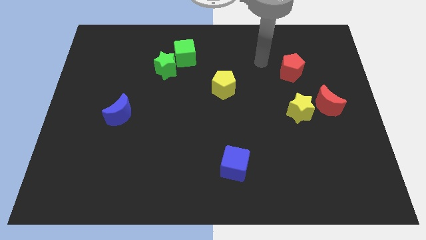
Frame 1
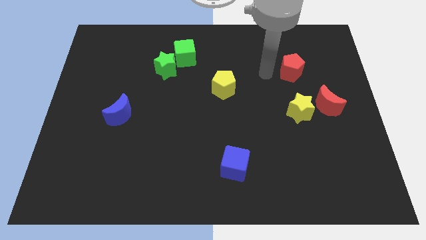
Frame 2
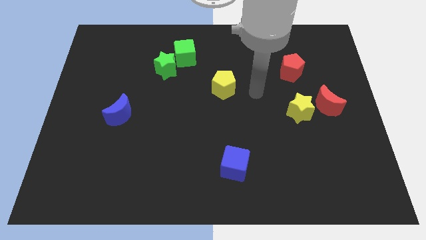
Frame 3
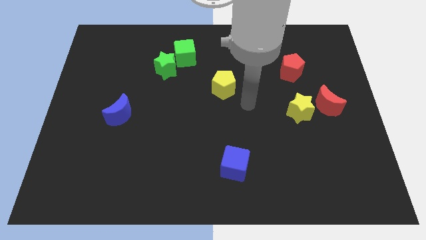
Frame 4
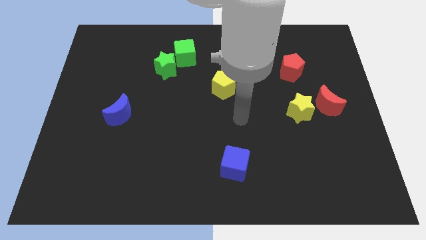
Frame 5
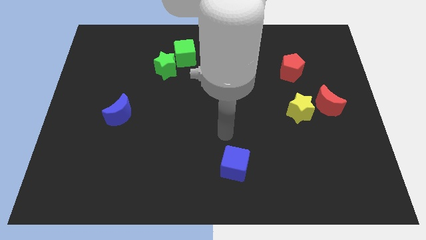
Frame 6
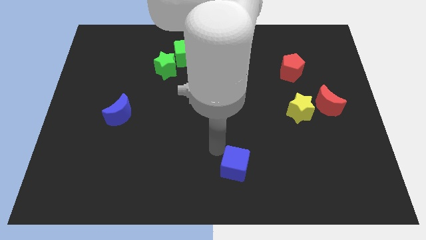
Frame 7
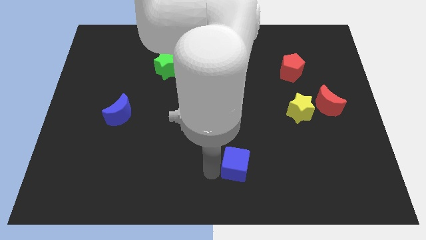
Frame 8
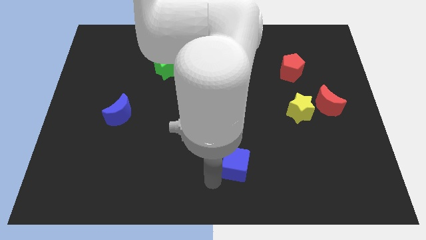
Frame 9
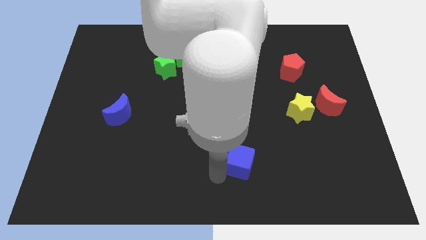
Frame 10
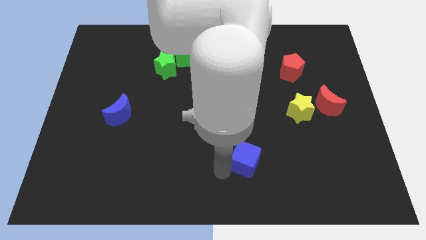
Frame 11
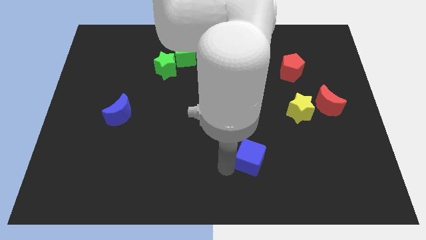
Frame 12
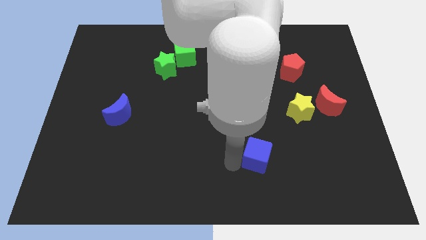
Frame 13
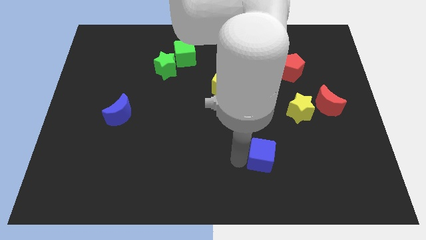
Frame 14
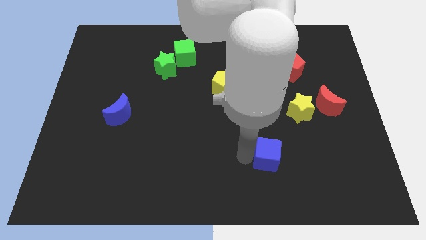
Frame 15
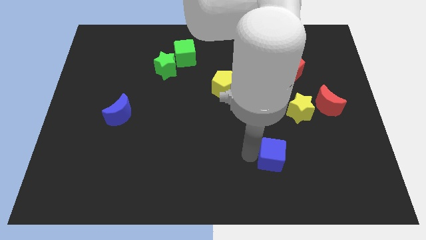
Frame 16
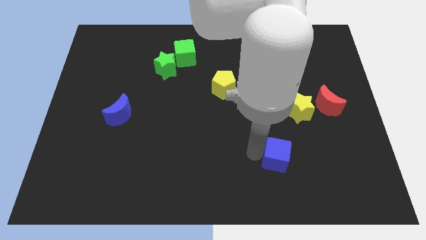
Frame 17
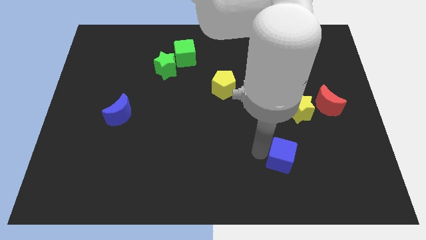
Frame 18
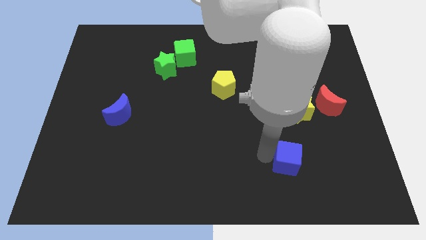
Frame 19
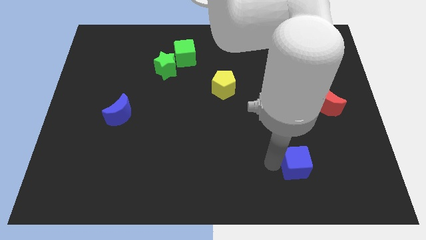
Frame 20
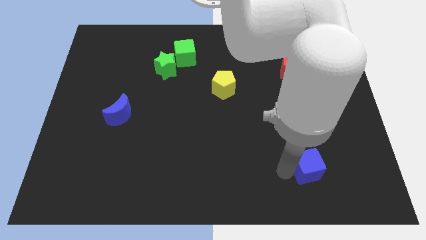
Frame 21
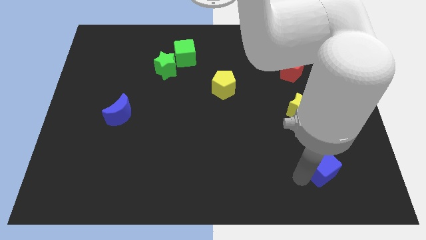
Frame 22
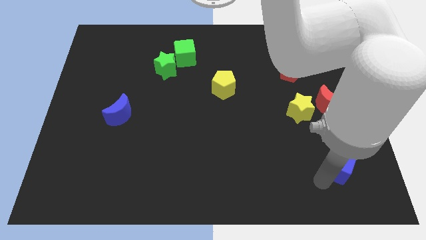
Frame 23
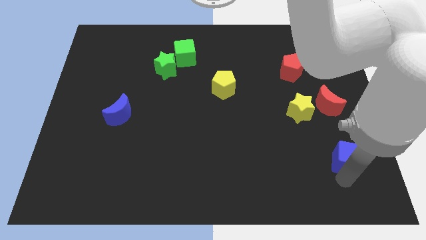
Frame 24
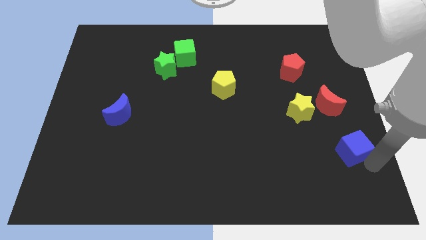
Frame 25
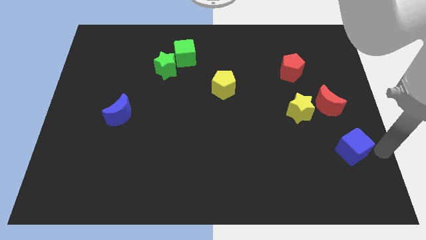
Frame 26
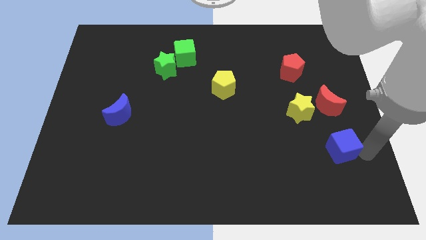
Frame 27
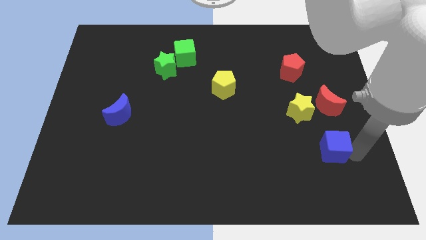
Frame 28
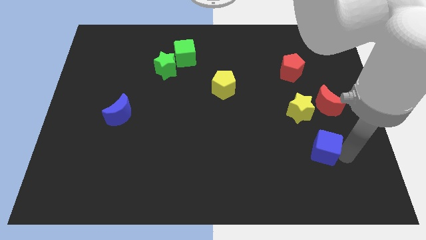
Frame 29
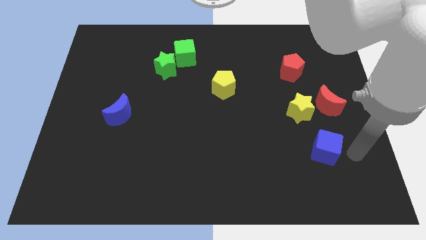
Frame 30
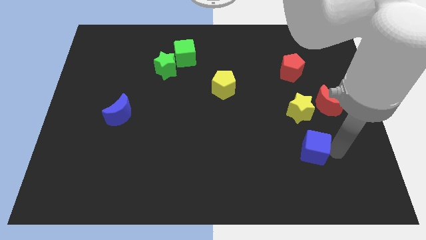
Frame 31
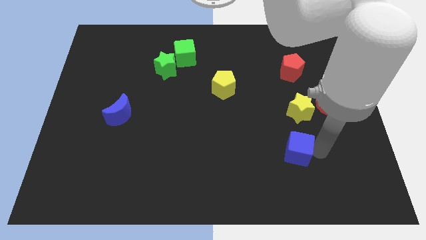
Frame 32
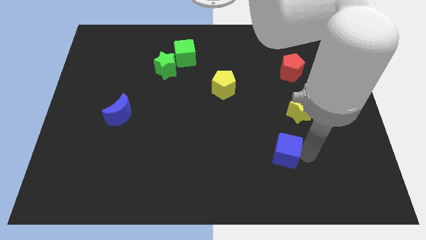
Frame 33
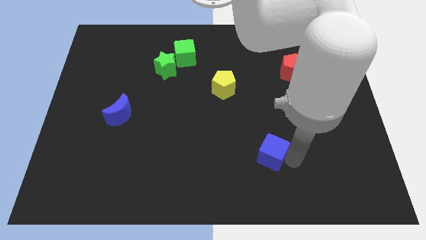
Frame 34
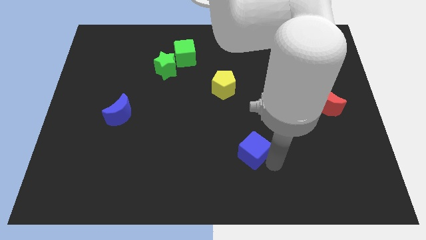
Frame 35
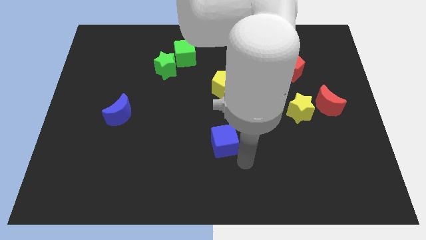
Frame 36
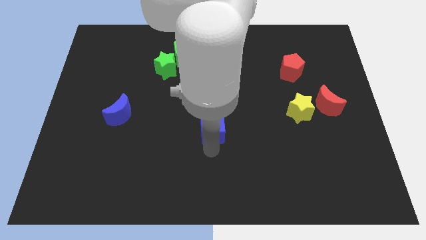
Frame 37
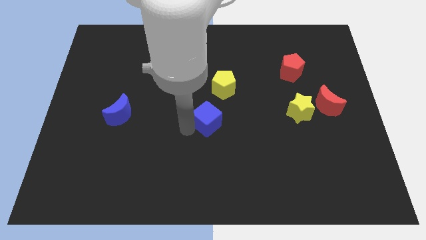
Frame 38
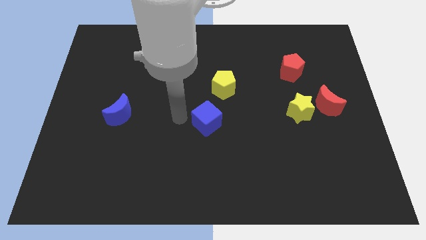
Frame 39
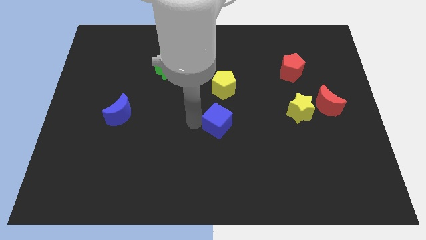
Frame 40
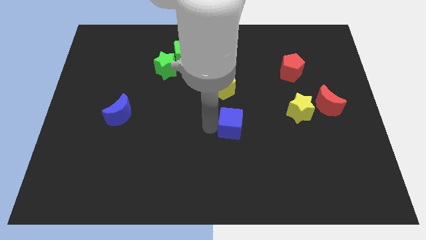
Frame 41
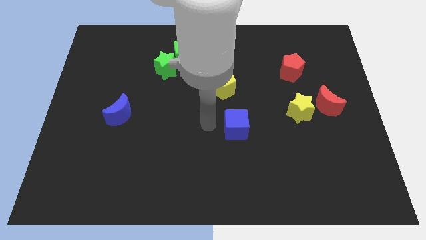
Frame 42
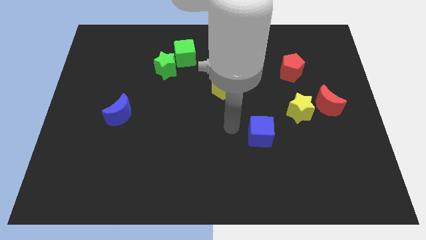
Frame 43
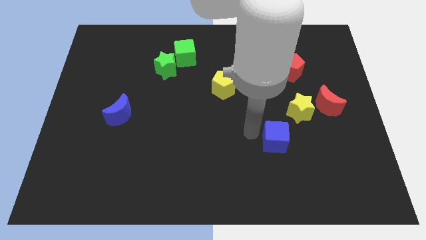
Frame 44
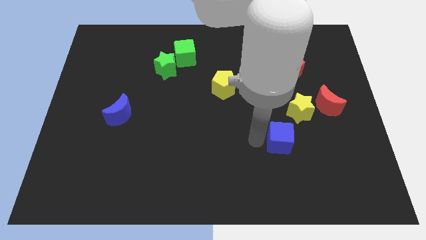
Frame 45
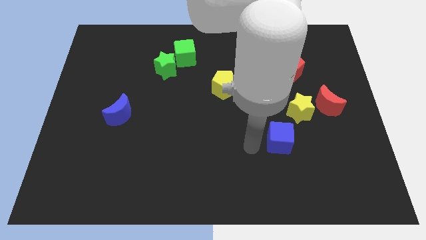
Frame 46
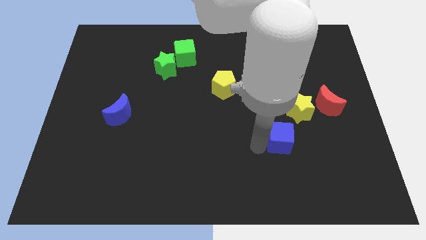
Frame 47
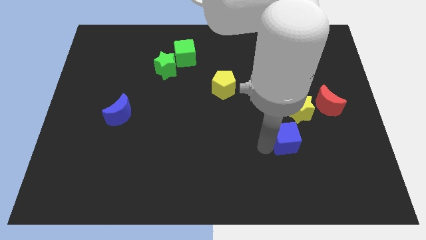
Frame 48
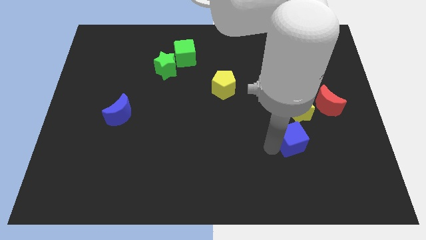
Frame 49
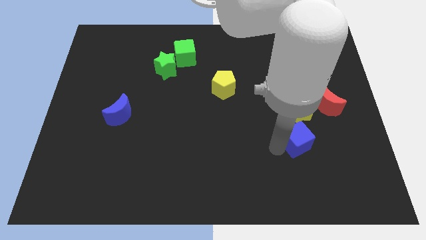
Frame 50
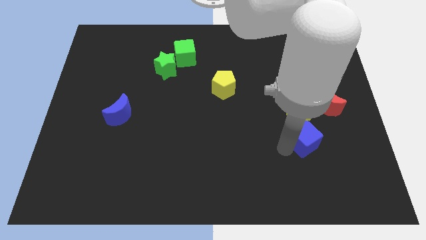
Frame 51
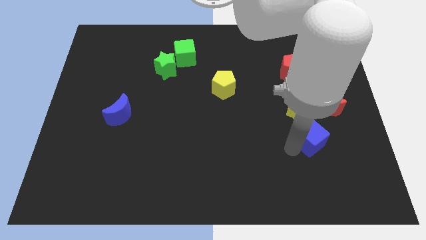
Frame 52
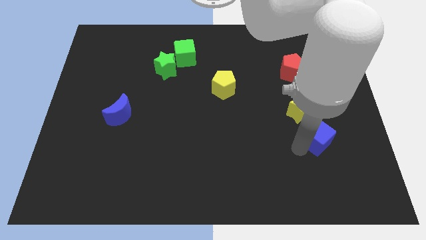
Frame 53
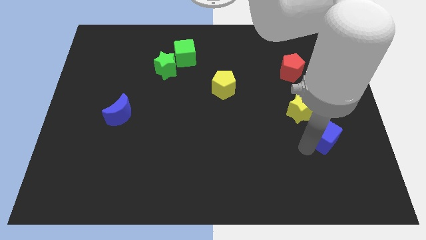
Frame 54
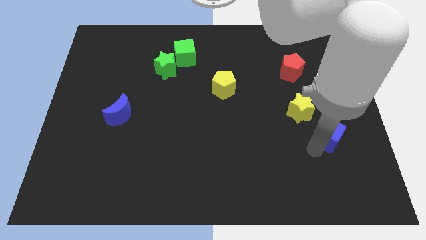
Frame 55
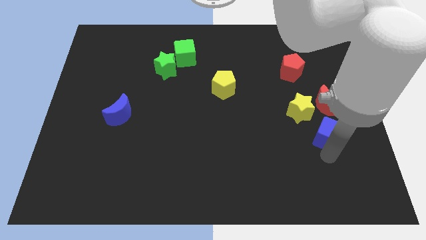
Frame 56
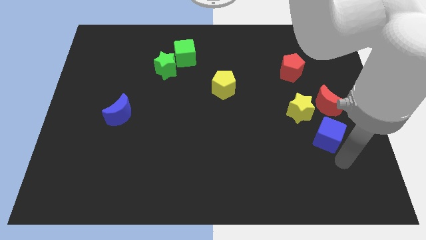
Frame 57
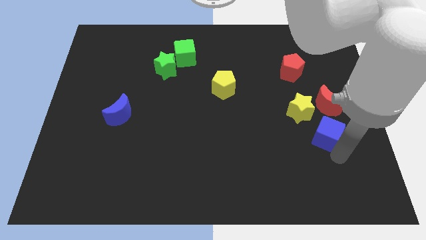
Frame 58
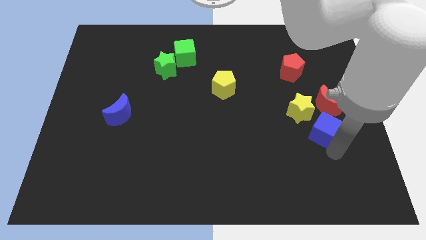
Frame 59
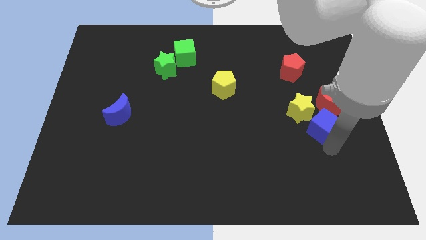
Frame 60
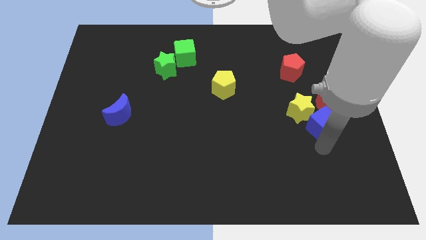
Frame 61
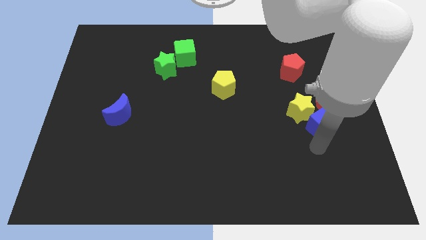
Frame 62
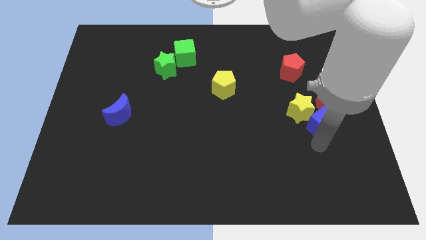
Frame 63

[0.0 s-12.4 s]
move the blue cube close to the red moon

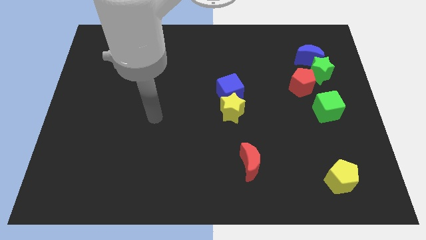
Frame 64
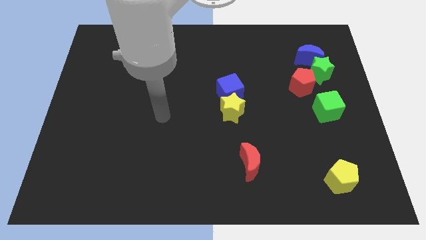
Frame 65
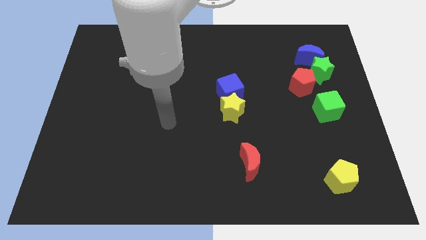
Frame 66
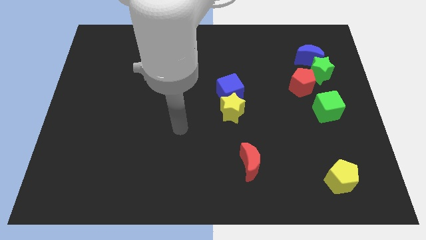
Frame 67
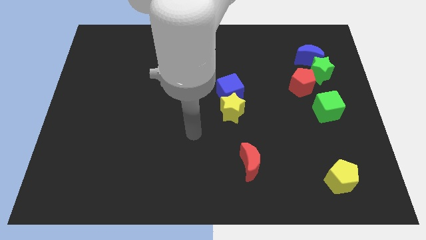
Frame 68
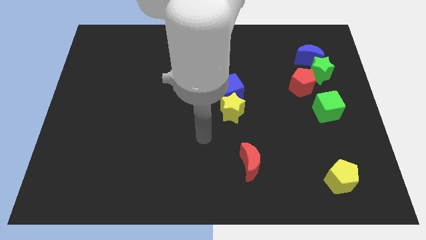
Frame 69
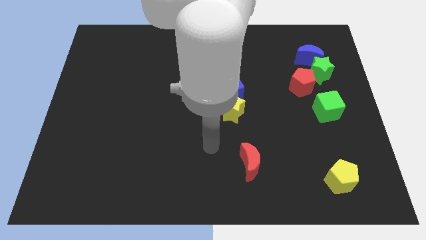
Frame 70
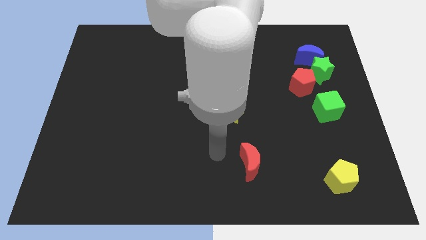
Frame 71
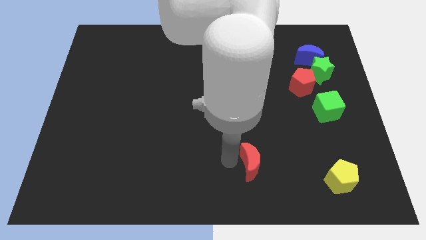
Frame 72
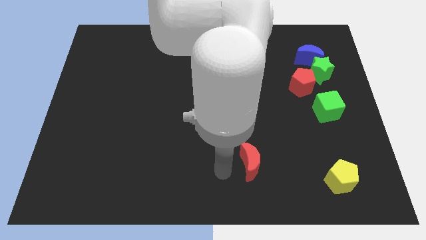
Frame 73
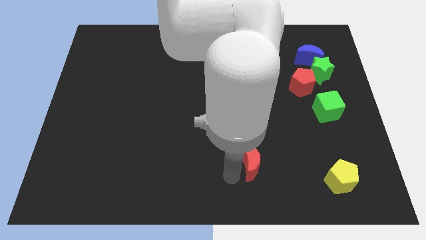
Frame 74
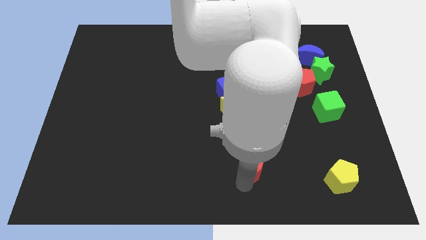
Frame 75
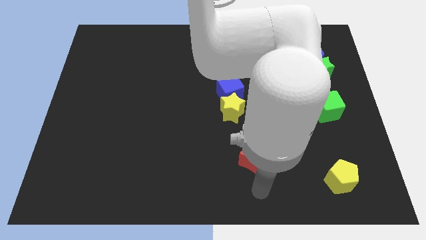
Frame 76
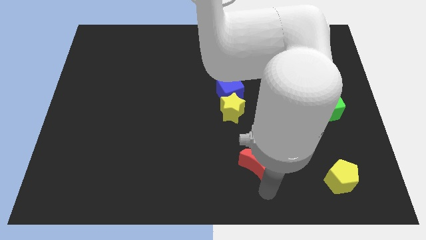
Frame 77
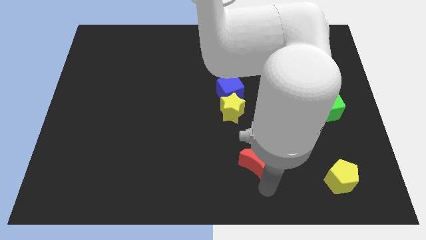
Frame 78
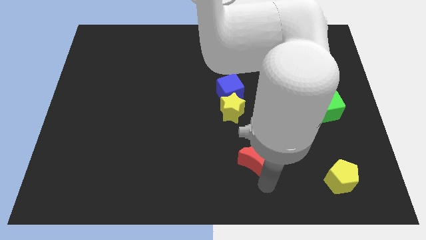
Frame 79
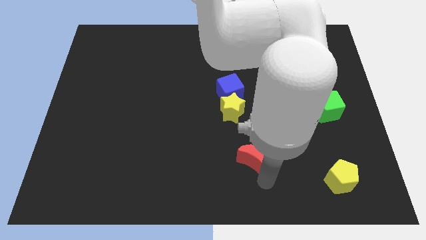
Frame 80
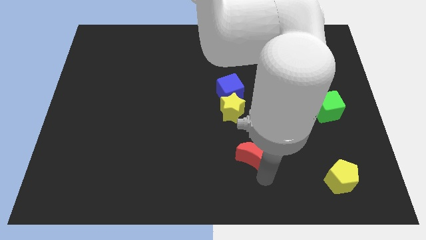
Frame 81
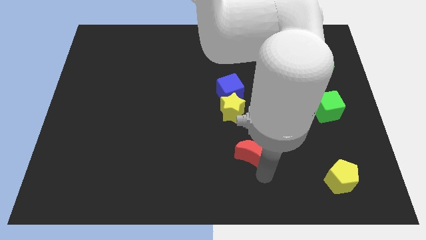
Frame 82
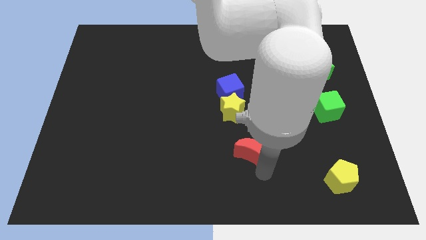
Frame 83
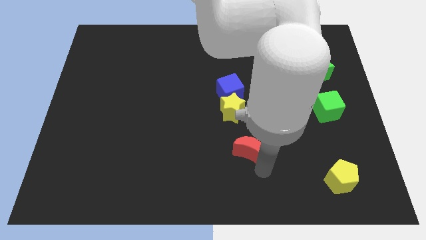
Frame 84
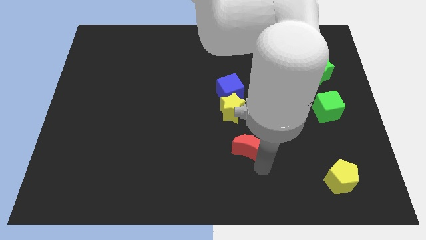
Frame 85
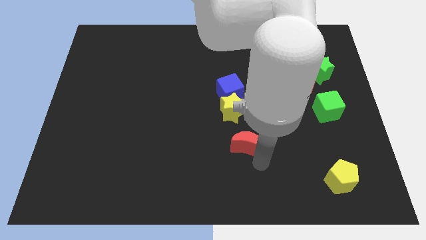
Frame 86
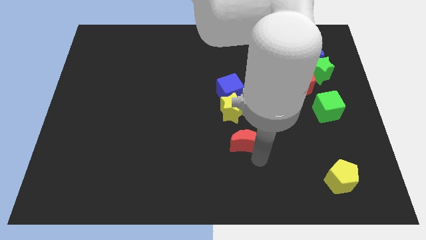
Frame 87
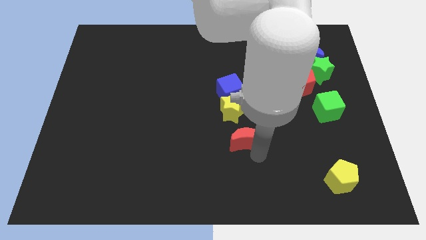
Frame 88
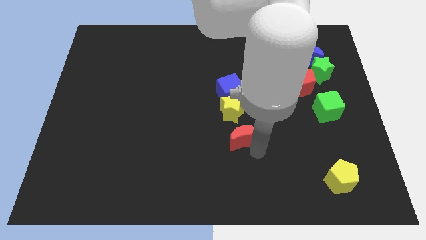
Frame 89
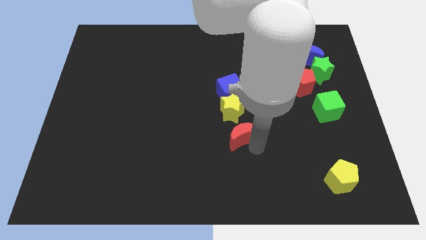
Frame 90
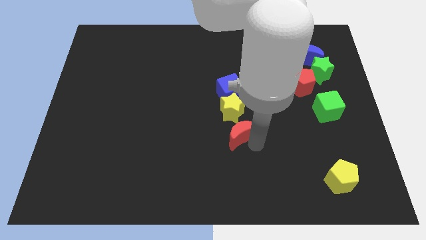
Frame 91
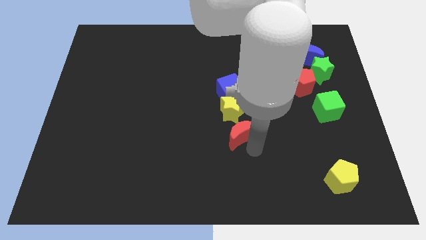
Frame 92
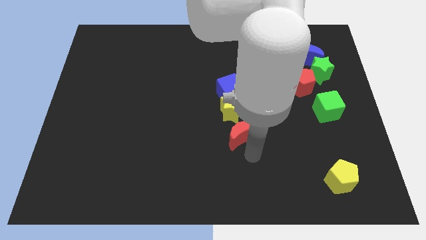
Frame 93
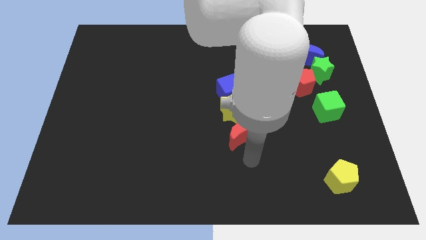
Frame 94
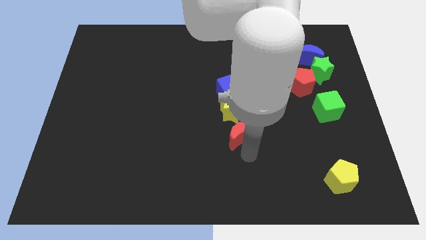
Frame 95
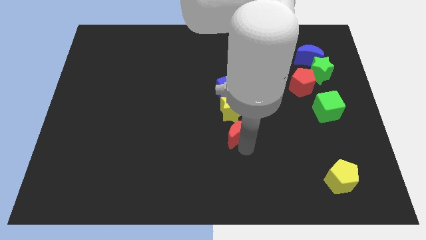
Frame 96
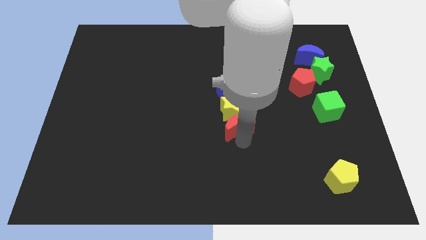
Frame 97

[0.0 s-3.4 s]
slide the red moon towards the yellow star
